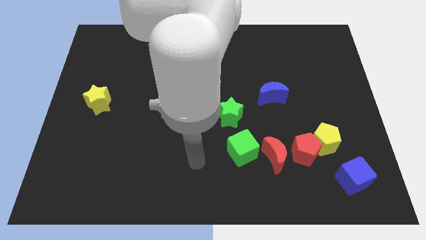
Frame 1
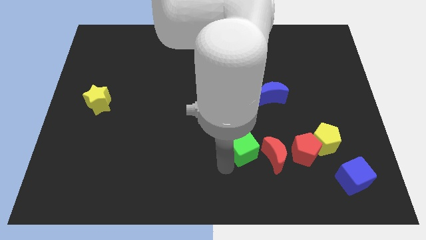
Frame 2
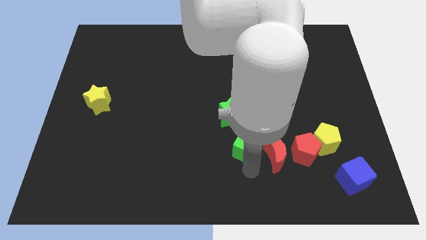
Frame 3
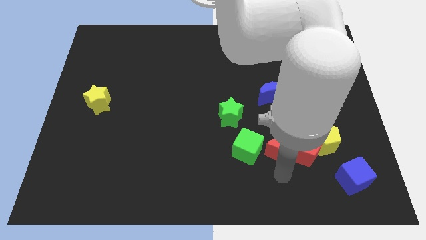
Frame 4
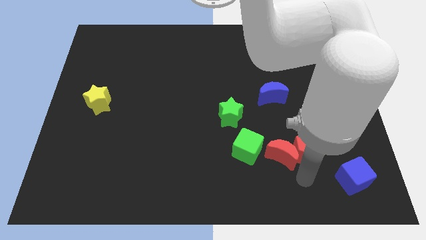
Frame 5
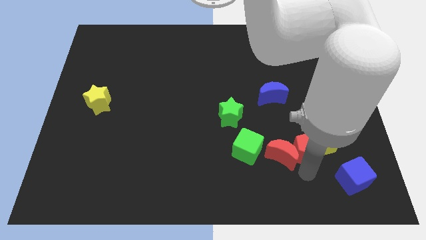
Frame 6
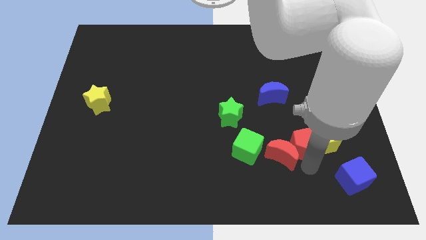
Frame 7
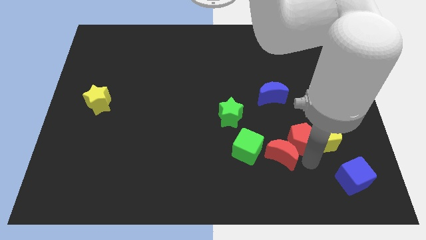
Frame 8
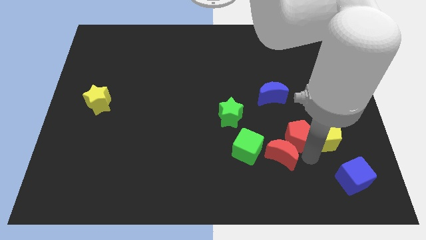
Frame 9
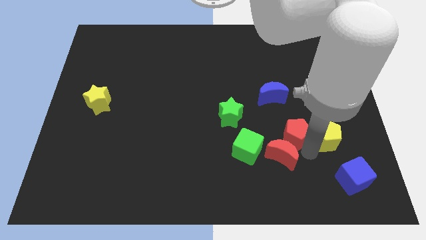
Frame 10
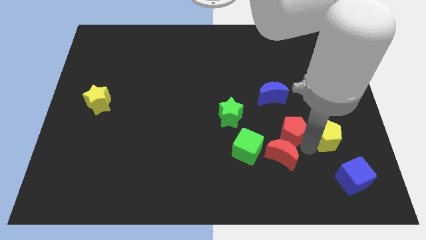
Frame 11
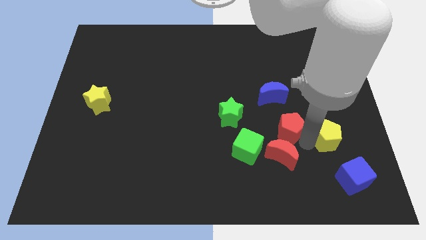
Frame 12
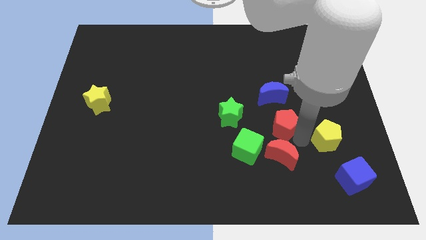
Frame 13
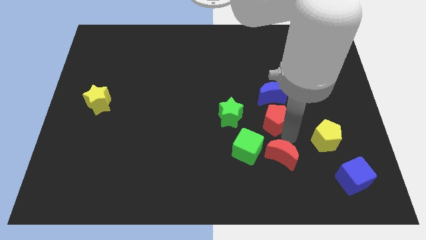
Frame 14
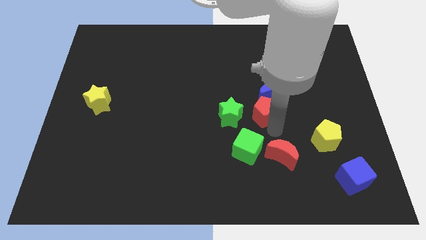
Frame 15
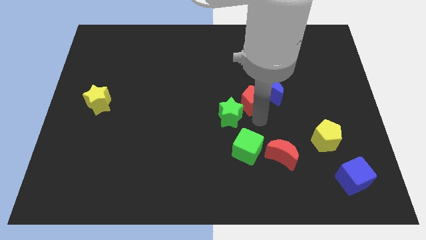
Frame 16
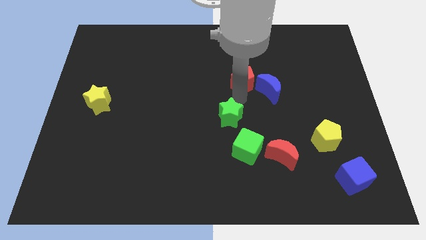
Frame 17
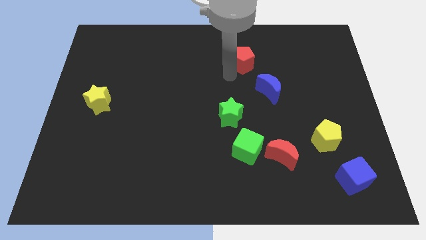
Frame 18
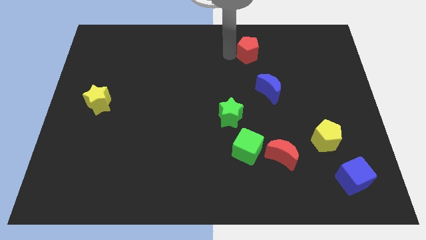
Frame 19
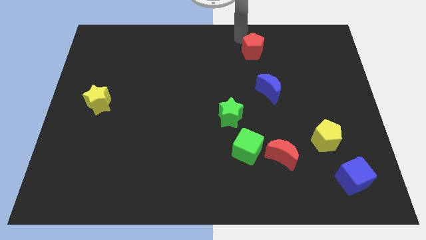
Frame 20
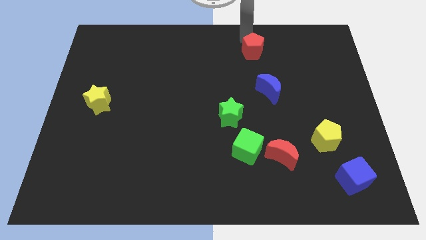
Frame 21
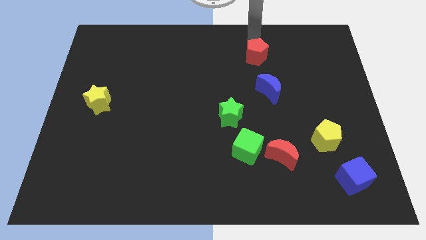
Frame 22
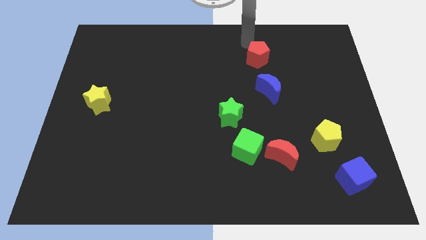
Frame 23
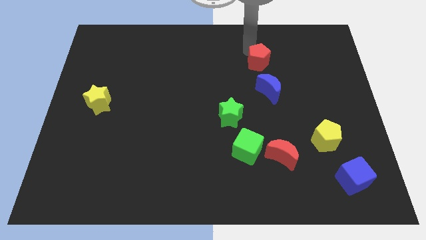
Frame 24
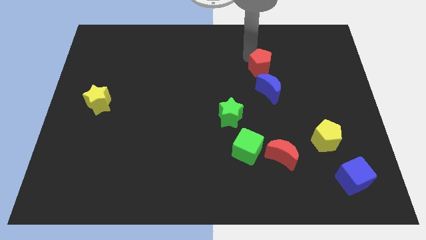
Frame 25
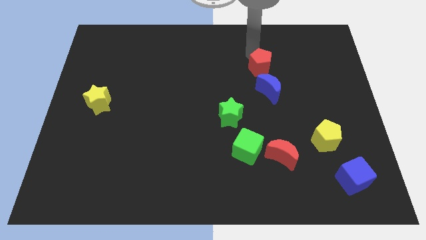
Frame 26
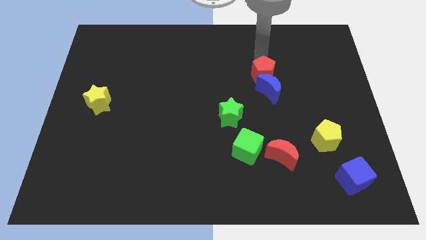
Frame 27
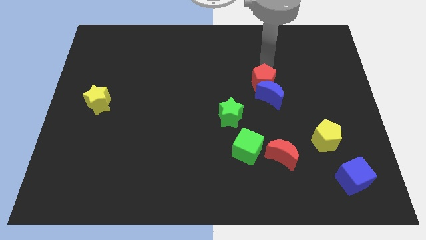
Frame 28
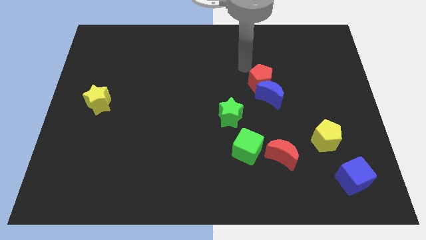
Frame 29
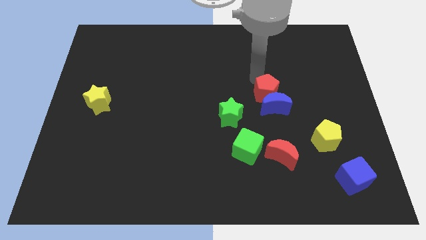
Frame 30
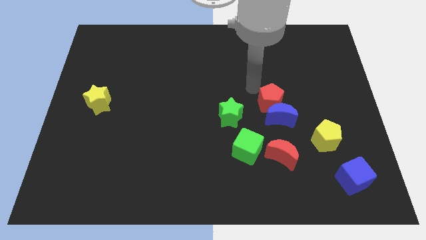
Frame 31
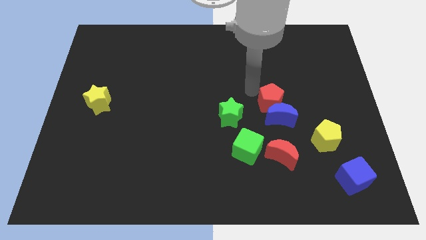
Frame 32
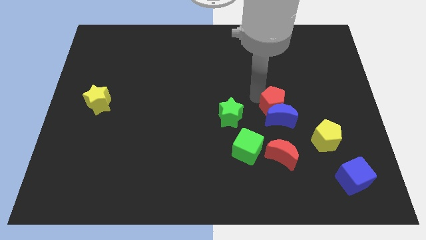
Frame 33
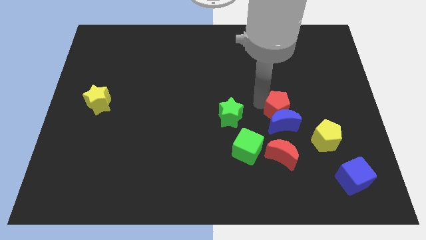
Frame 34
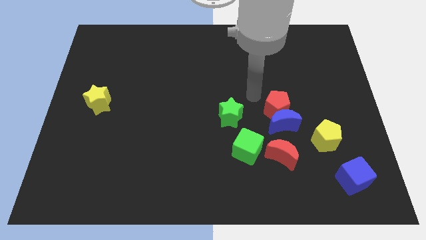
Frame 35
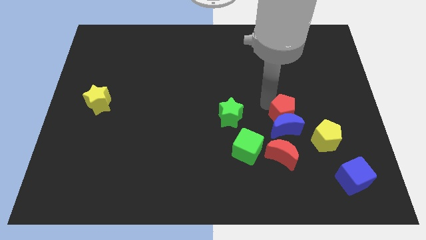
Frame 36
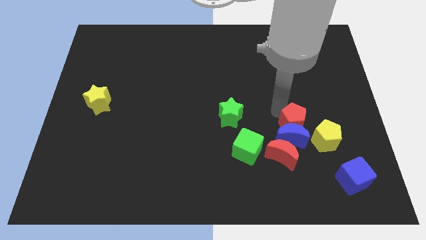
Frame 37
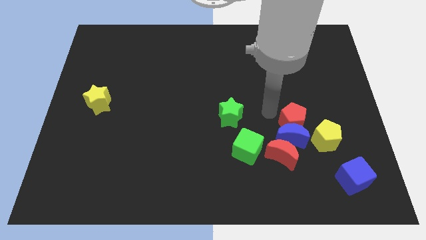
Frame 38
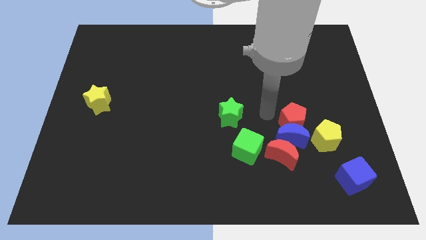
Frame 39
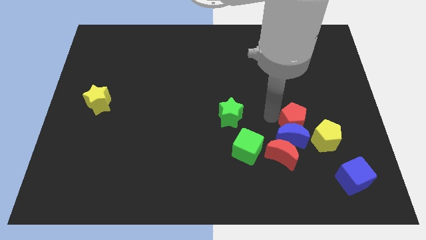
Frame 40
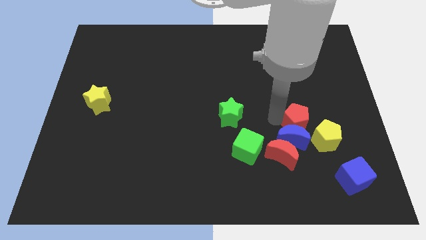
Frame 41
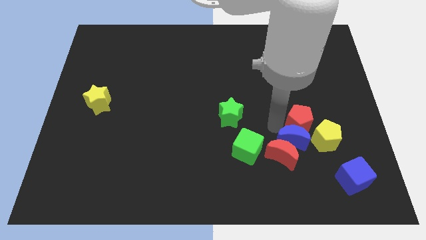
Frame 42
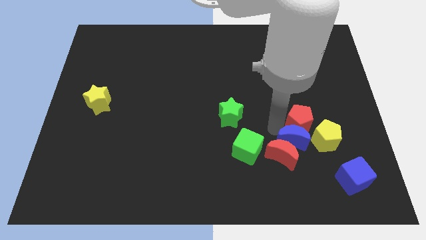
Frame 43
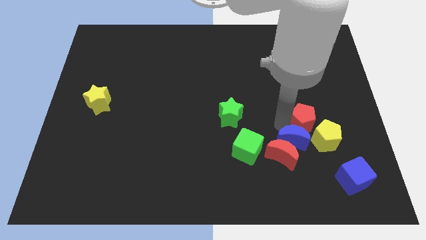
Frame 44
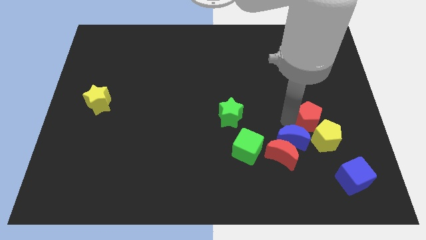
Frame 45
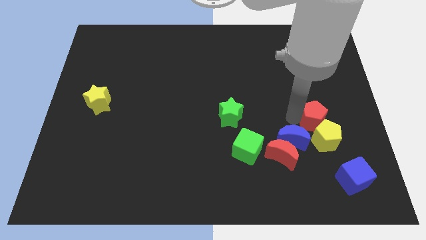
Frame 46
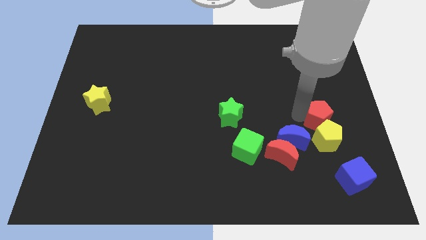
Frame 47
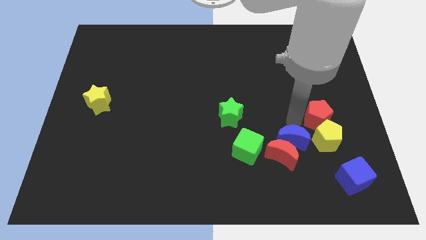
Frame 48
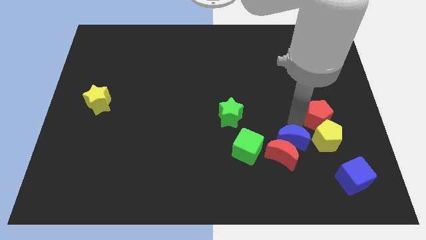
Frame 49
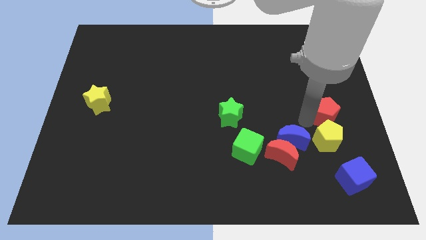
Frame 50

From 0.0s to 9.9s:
slide the red pentagon to the center right

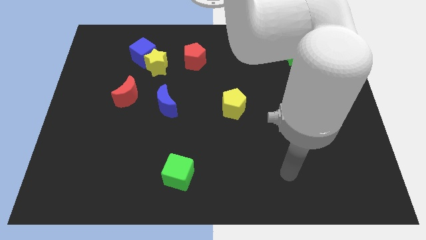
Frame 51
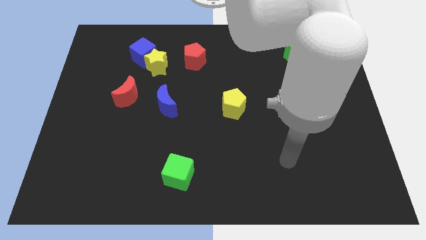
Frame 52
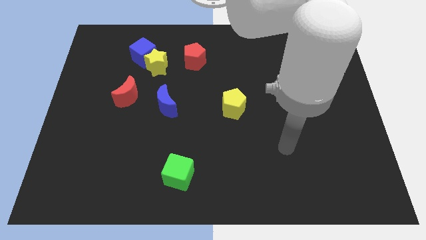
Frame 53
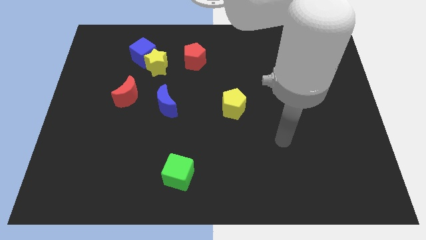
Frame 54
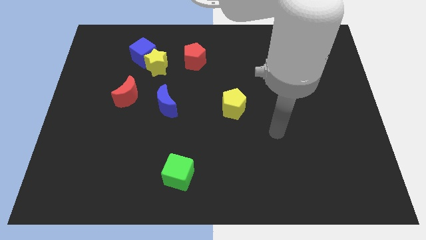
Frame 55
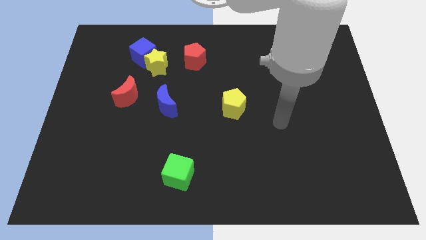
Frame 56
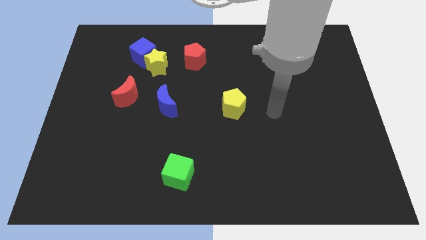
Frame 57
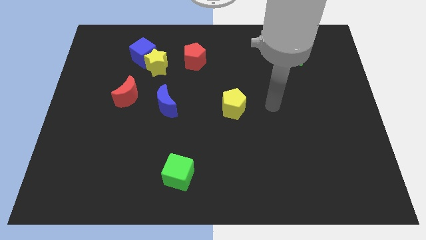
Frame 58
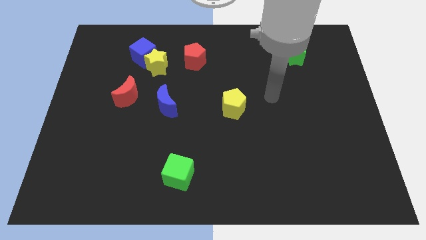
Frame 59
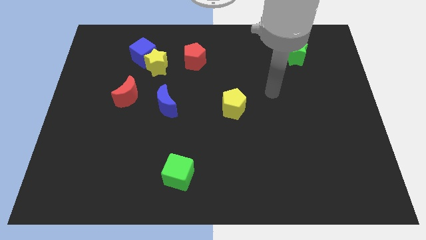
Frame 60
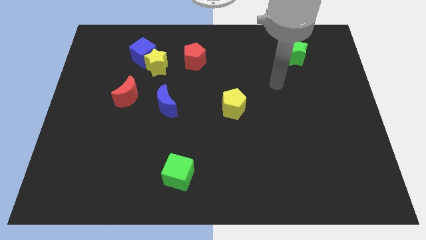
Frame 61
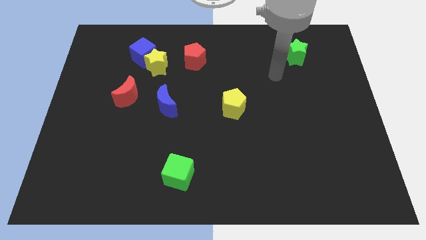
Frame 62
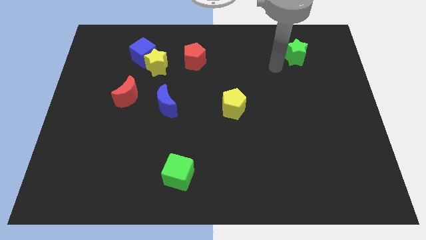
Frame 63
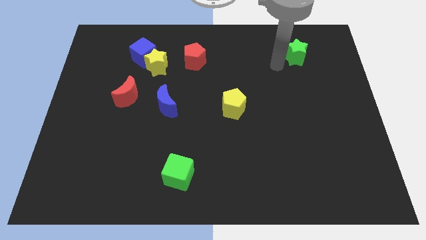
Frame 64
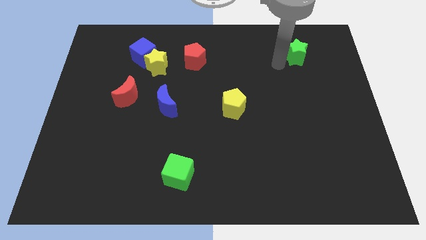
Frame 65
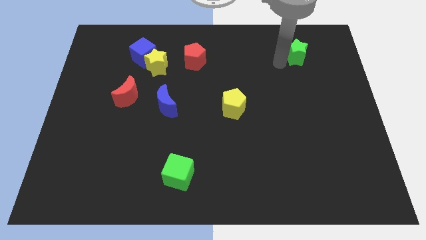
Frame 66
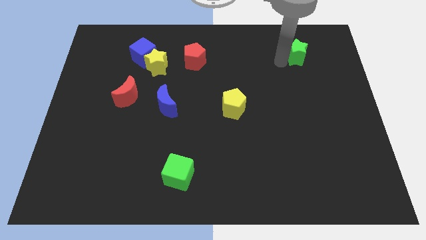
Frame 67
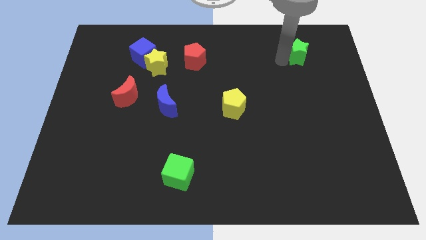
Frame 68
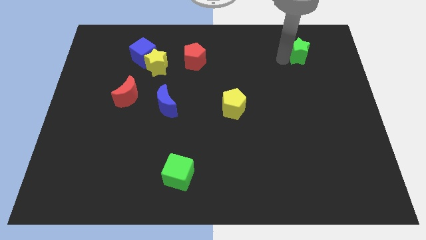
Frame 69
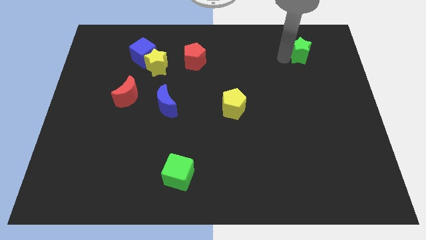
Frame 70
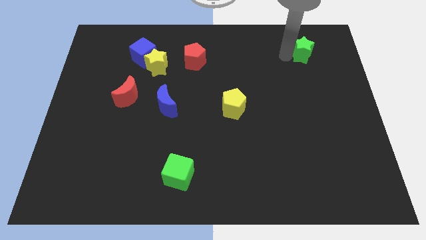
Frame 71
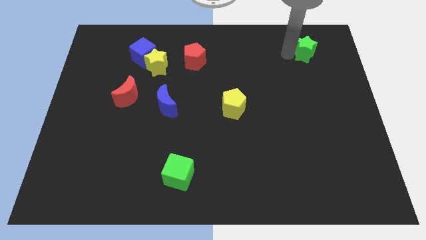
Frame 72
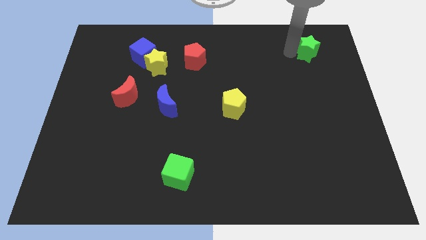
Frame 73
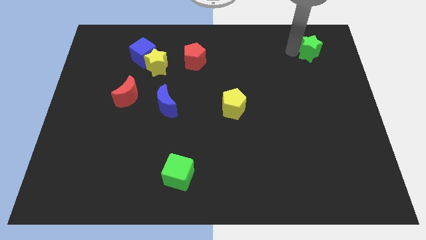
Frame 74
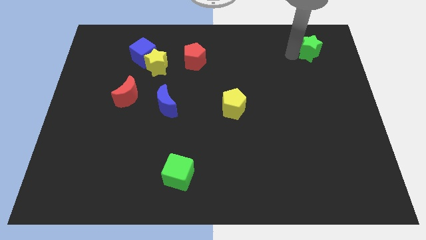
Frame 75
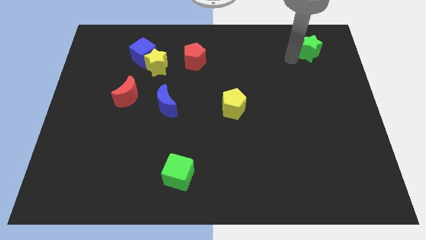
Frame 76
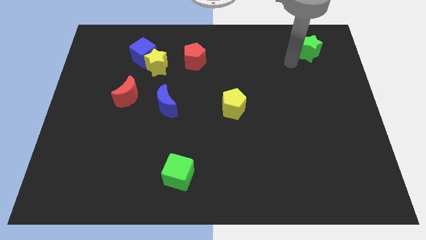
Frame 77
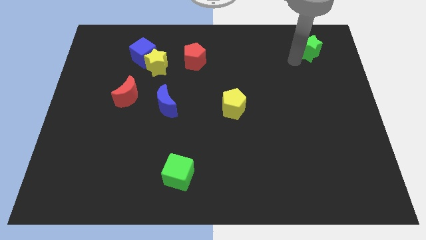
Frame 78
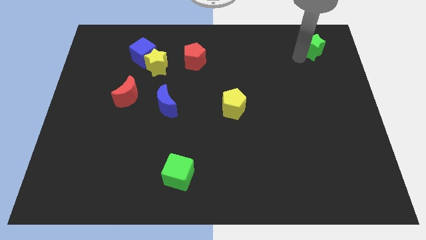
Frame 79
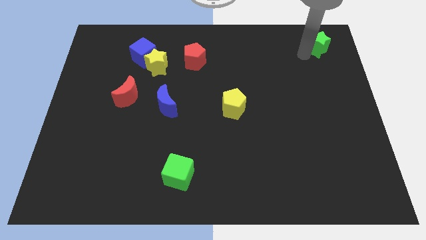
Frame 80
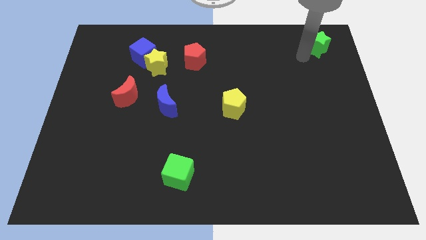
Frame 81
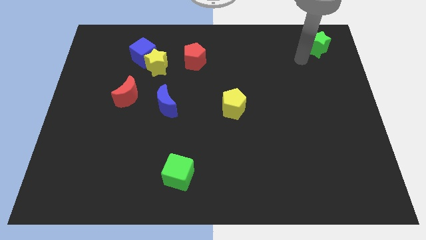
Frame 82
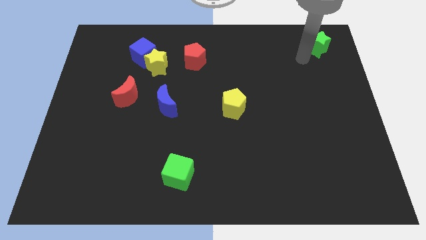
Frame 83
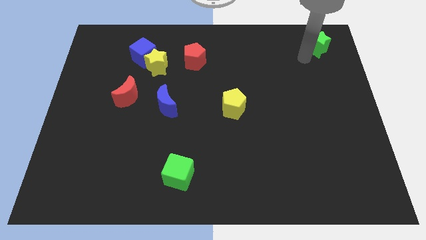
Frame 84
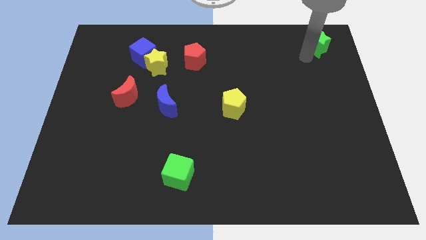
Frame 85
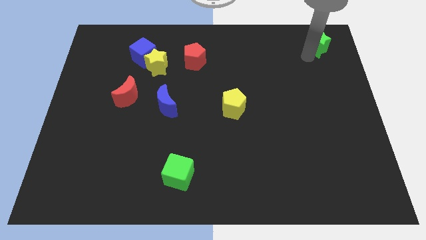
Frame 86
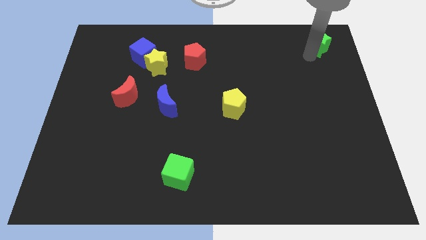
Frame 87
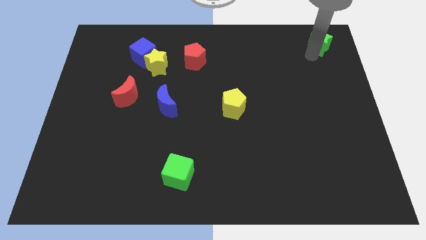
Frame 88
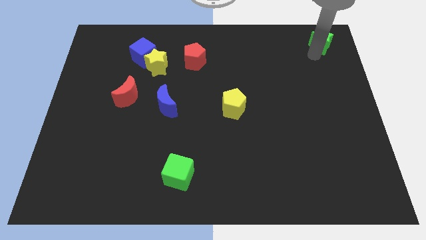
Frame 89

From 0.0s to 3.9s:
move the green star to the top right of the board
